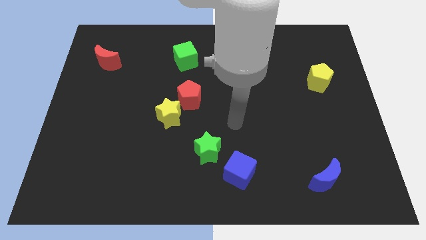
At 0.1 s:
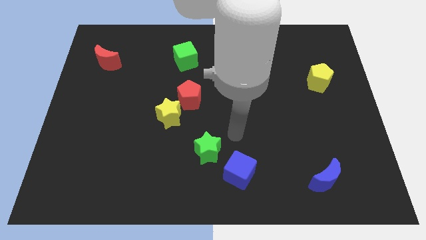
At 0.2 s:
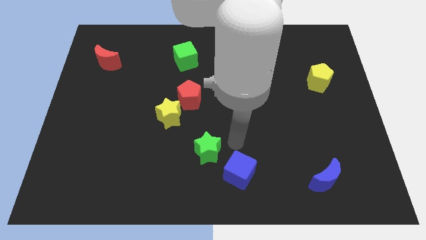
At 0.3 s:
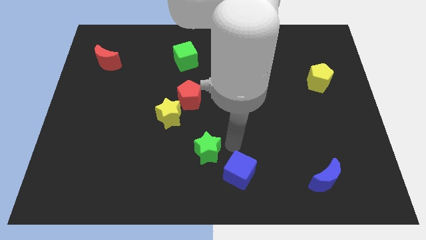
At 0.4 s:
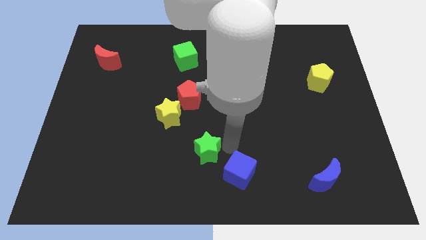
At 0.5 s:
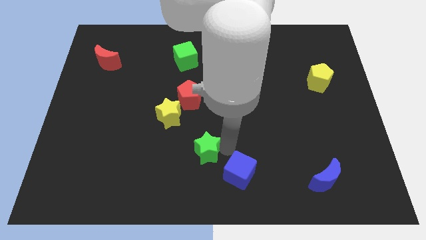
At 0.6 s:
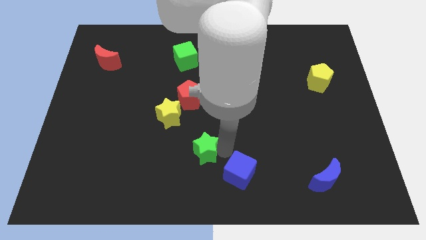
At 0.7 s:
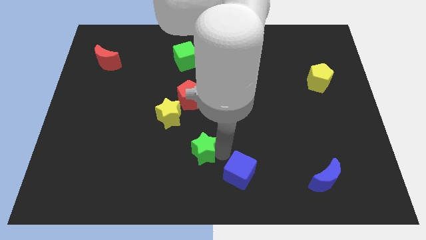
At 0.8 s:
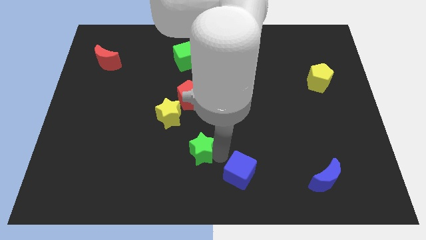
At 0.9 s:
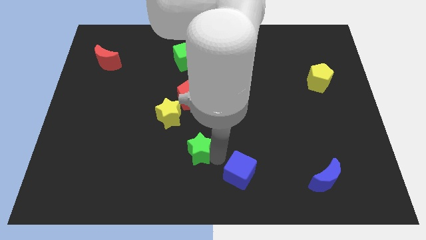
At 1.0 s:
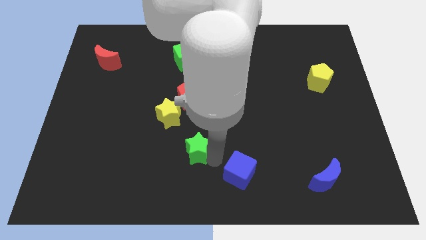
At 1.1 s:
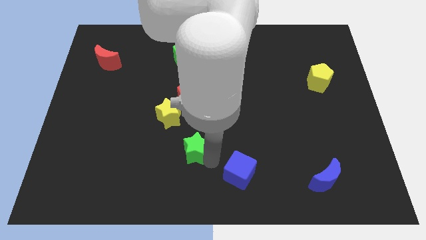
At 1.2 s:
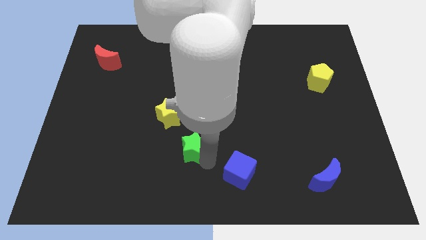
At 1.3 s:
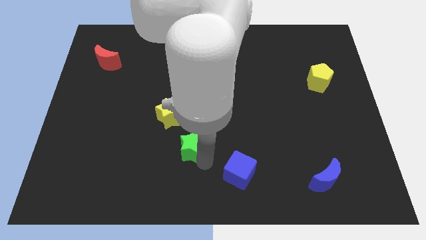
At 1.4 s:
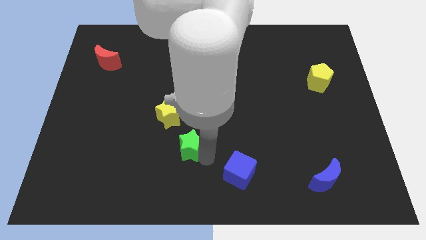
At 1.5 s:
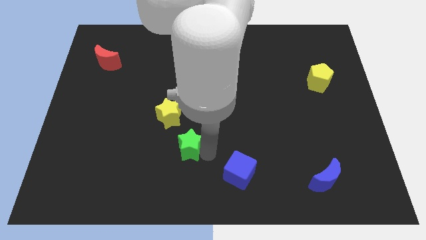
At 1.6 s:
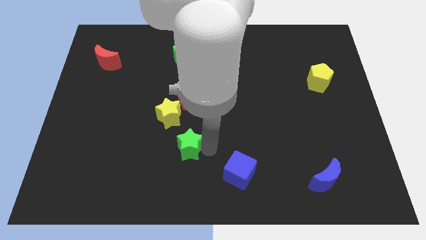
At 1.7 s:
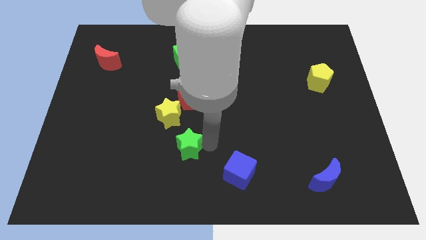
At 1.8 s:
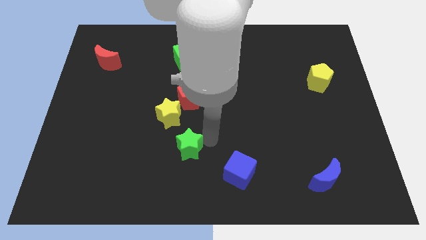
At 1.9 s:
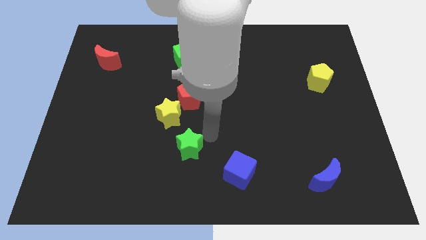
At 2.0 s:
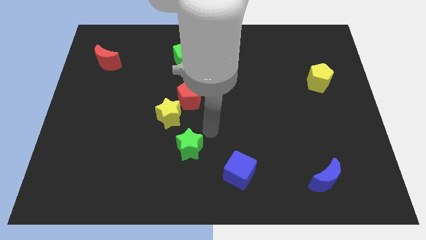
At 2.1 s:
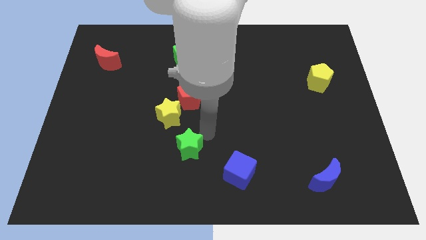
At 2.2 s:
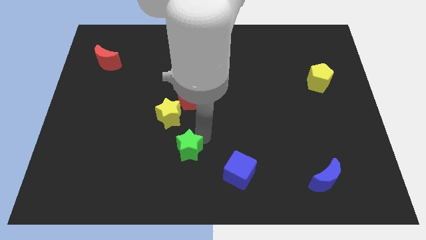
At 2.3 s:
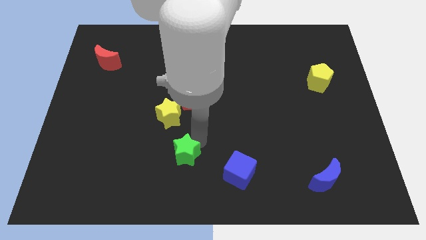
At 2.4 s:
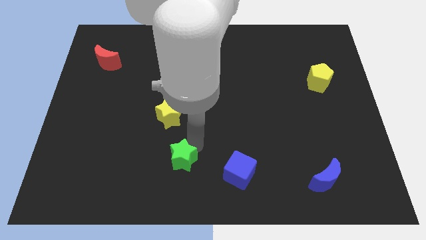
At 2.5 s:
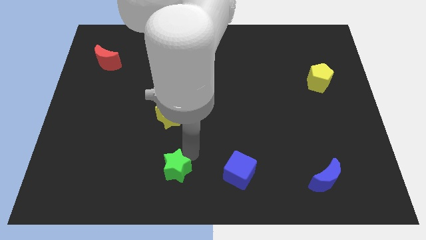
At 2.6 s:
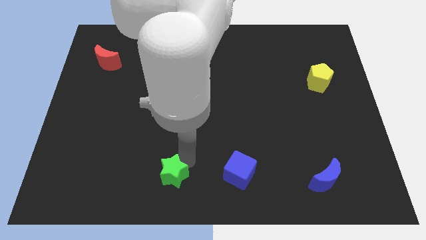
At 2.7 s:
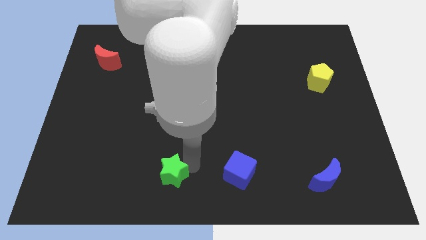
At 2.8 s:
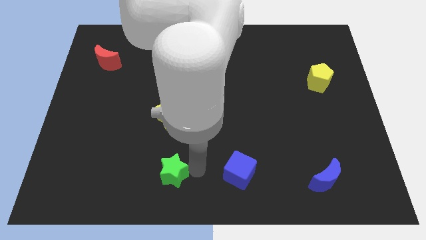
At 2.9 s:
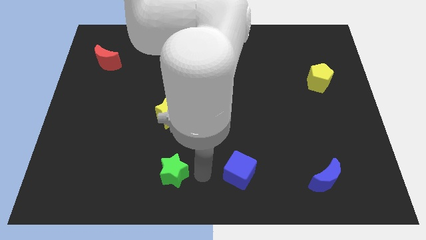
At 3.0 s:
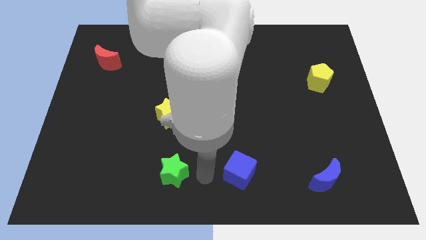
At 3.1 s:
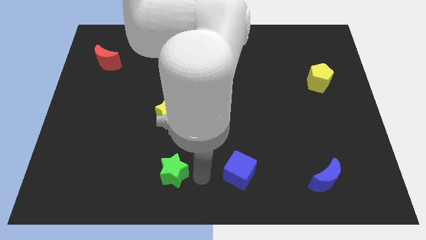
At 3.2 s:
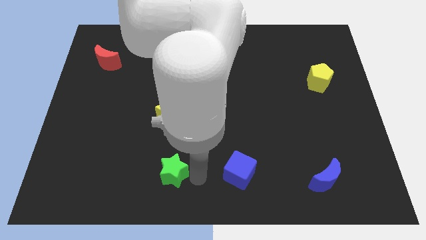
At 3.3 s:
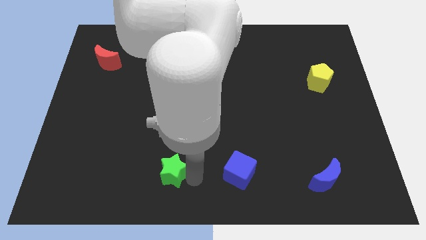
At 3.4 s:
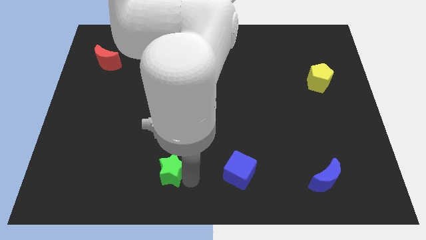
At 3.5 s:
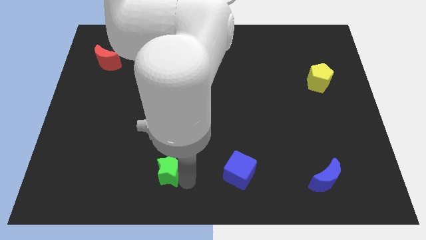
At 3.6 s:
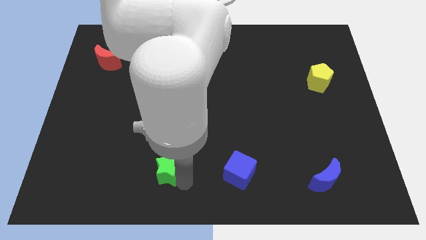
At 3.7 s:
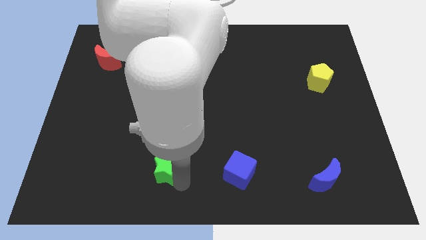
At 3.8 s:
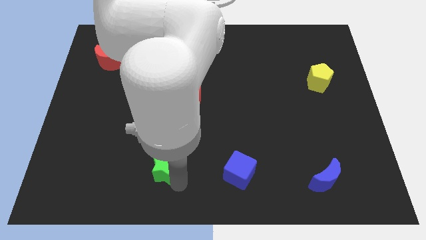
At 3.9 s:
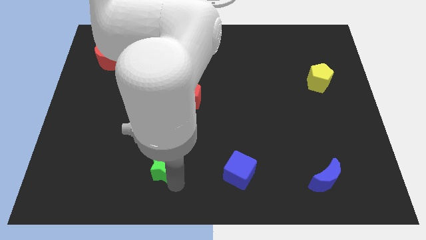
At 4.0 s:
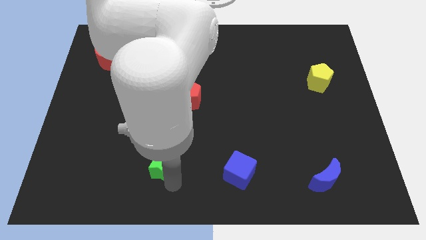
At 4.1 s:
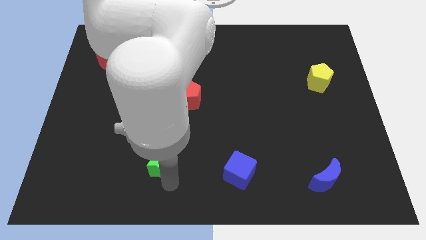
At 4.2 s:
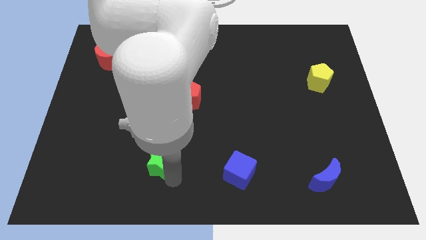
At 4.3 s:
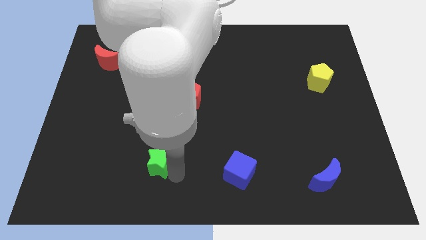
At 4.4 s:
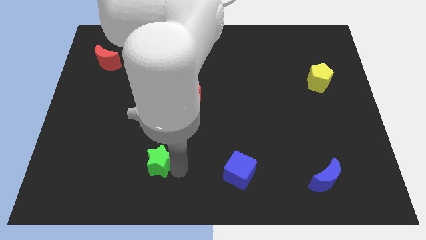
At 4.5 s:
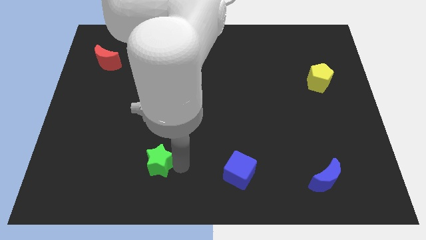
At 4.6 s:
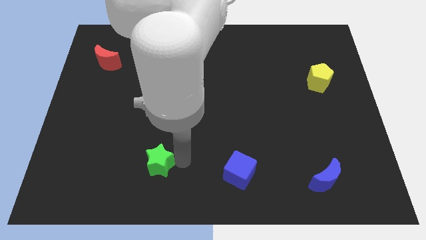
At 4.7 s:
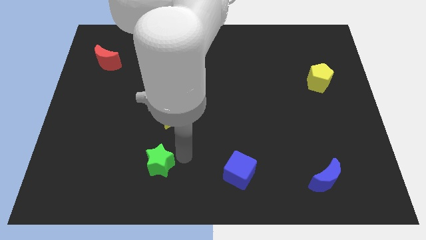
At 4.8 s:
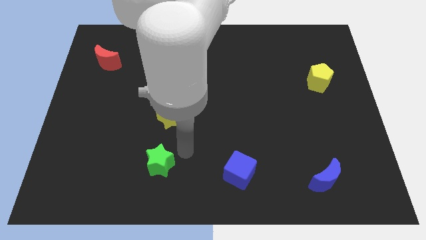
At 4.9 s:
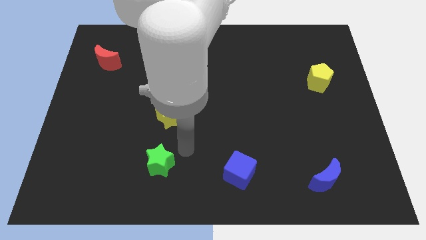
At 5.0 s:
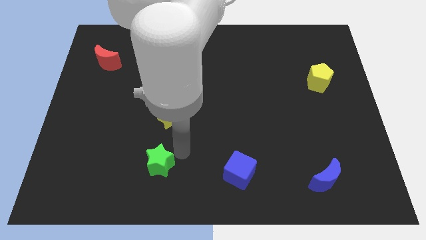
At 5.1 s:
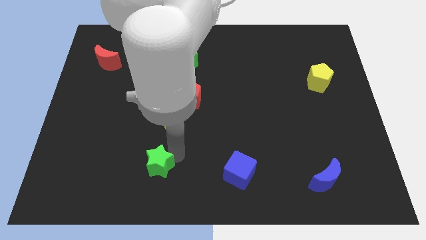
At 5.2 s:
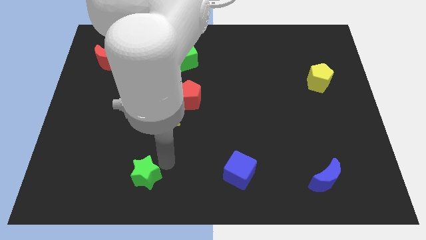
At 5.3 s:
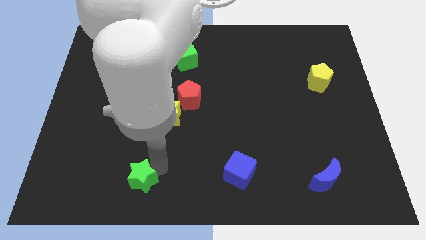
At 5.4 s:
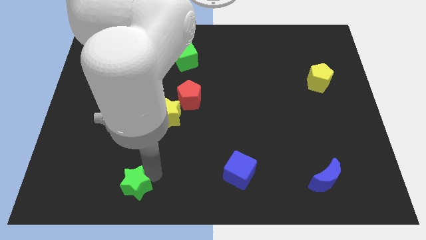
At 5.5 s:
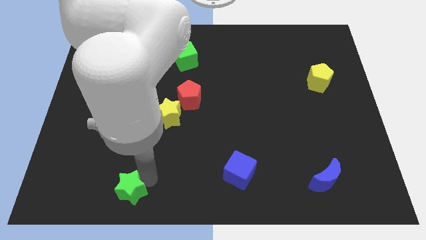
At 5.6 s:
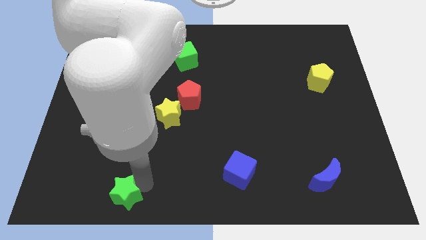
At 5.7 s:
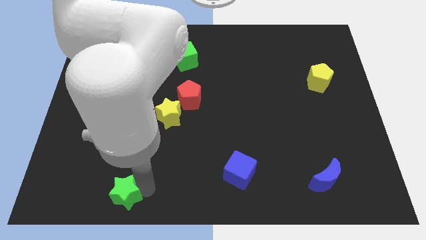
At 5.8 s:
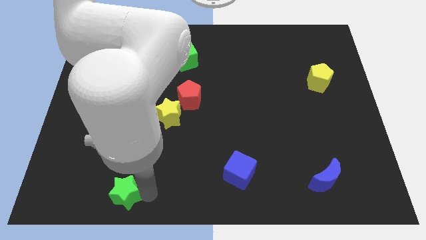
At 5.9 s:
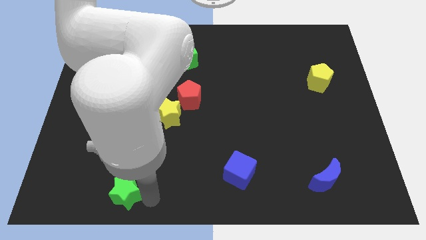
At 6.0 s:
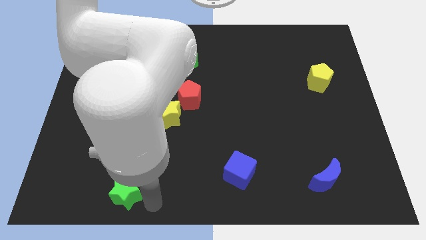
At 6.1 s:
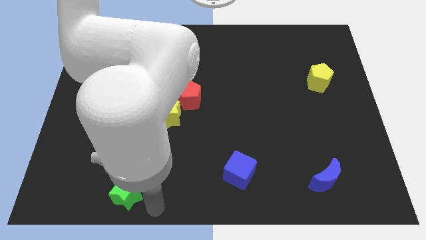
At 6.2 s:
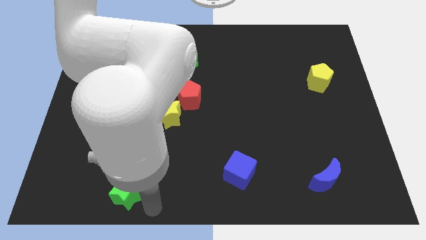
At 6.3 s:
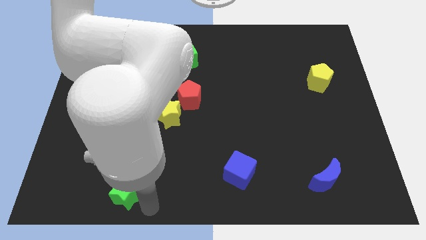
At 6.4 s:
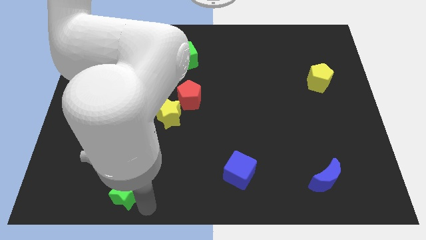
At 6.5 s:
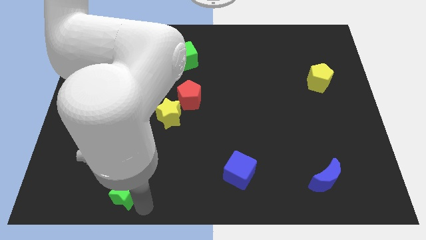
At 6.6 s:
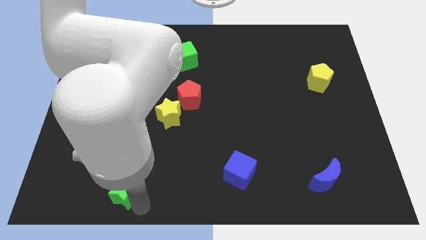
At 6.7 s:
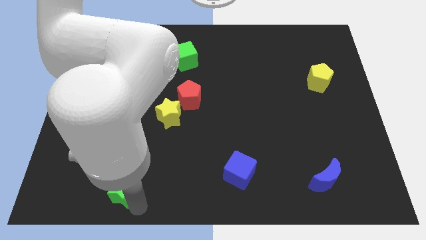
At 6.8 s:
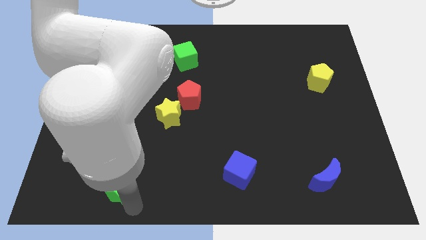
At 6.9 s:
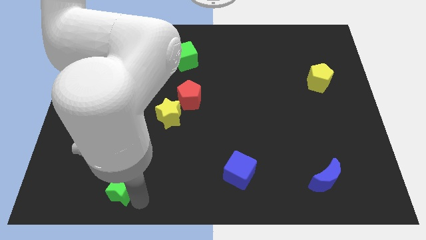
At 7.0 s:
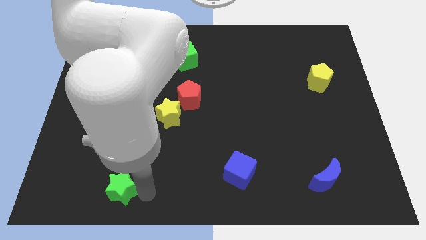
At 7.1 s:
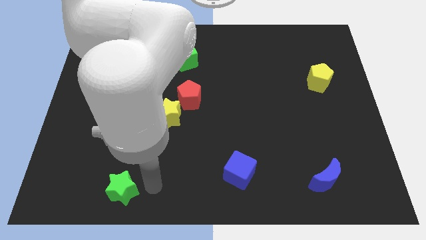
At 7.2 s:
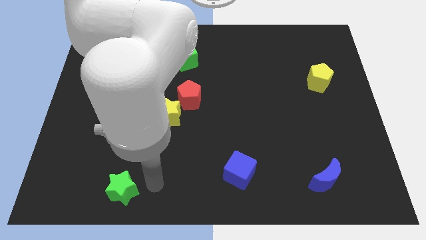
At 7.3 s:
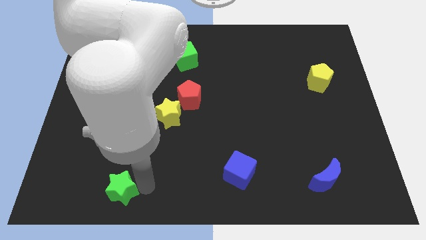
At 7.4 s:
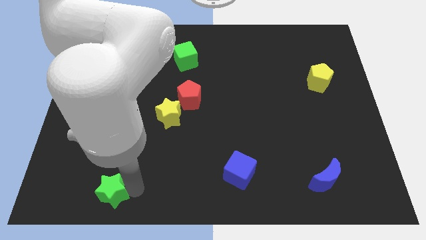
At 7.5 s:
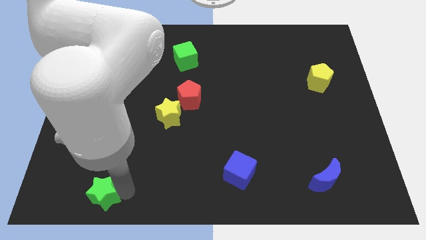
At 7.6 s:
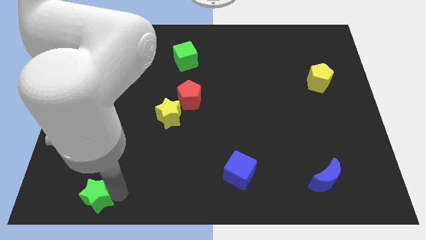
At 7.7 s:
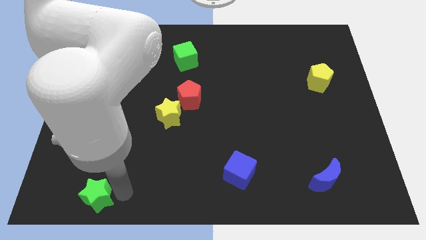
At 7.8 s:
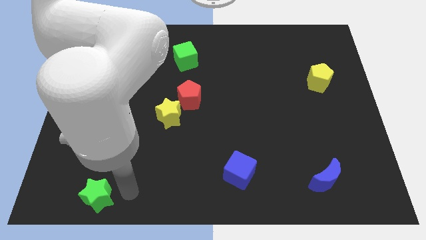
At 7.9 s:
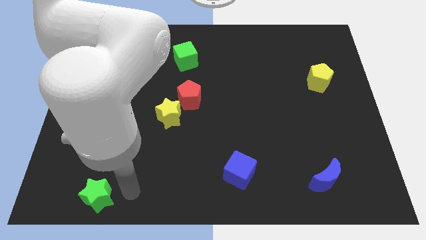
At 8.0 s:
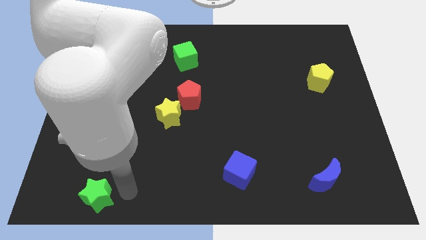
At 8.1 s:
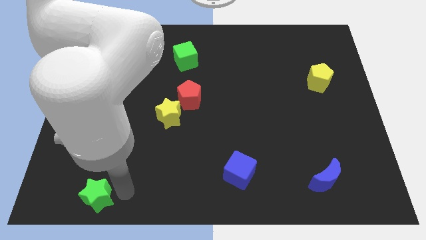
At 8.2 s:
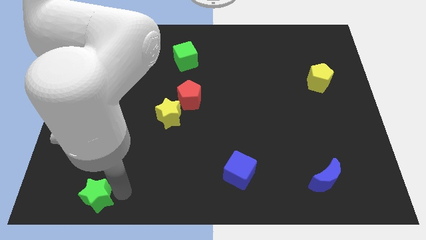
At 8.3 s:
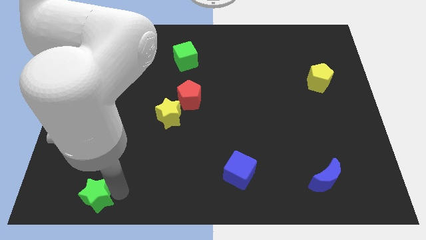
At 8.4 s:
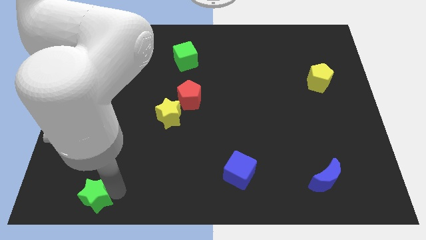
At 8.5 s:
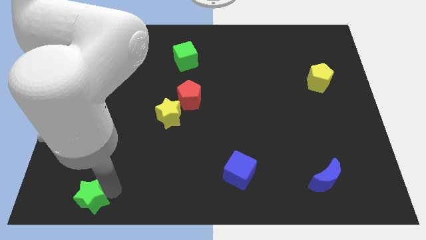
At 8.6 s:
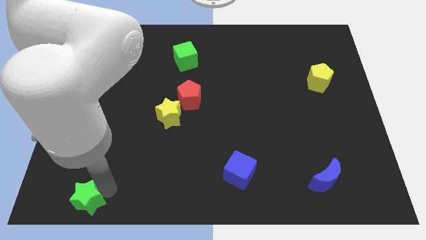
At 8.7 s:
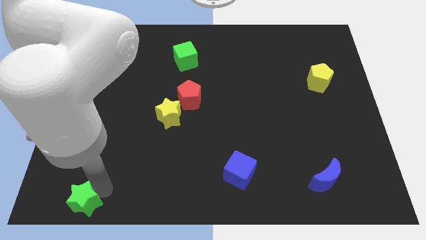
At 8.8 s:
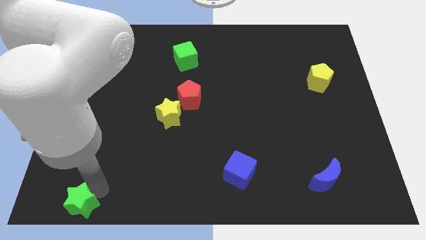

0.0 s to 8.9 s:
move the green star to the lower left corner
